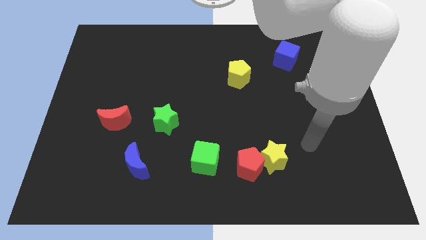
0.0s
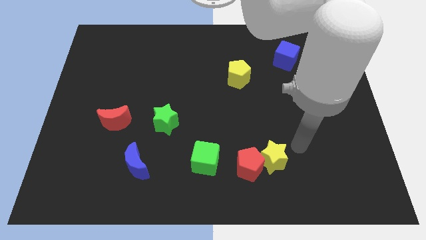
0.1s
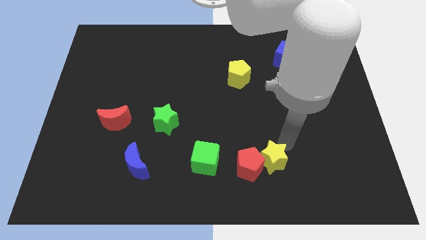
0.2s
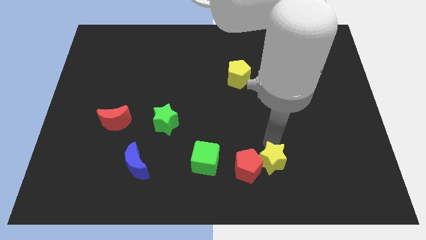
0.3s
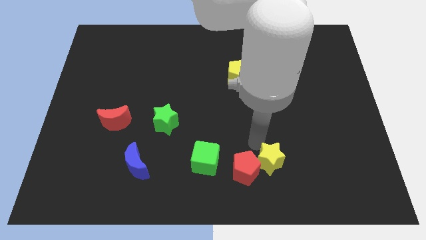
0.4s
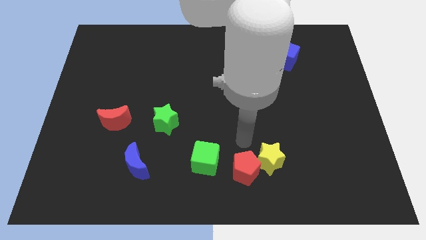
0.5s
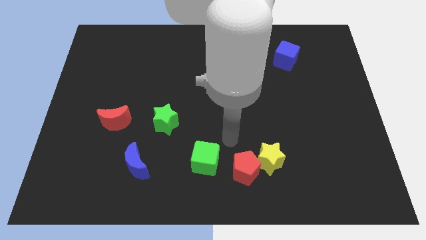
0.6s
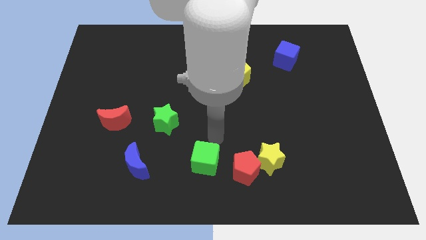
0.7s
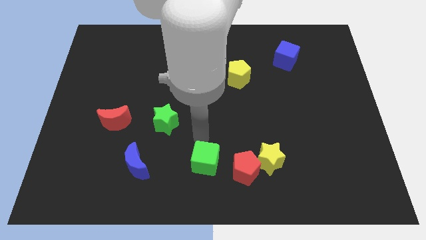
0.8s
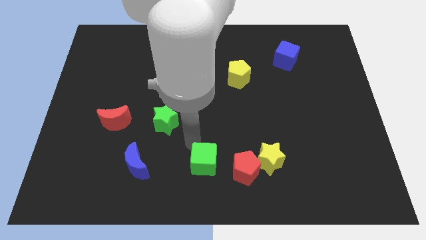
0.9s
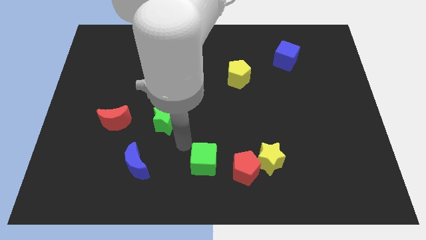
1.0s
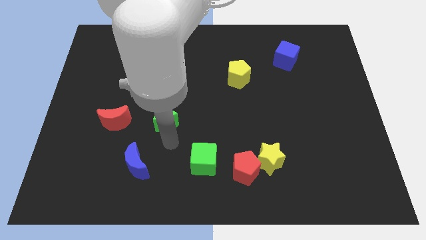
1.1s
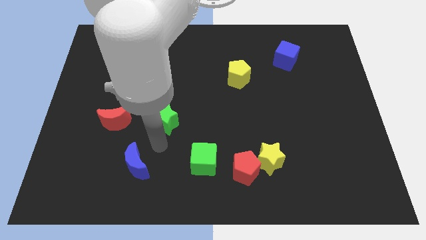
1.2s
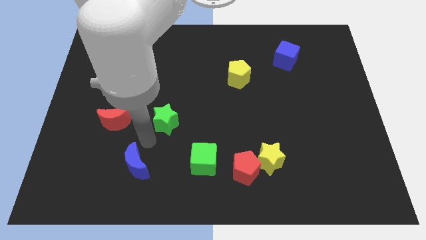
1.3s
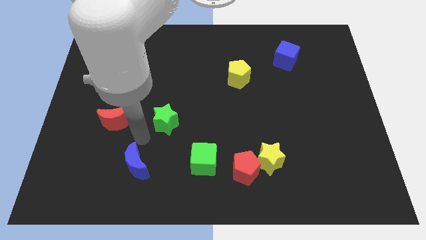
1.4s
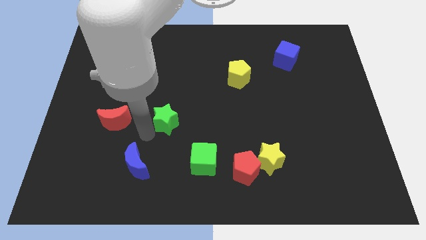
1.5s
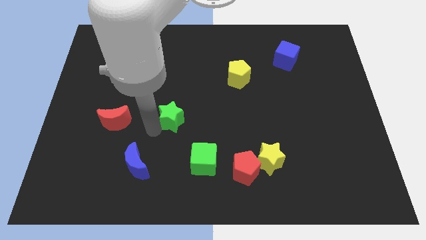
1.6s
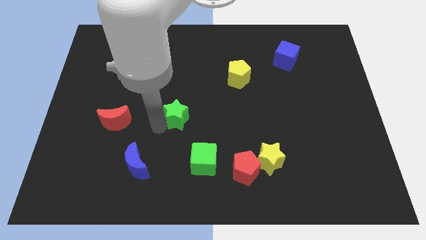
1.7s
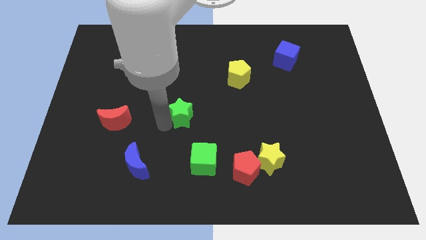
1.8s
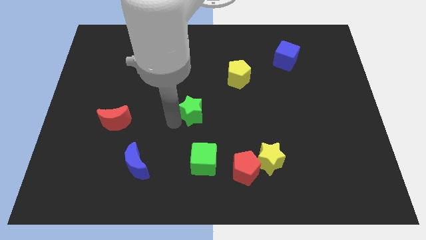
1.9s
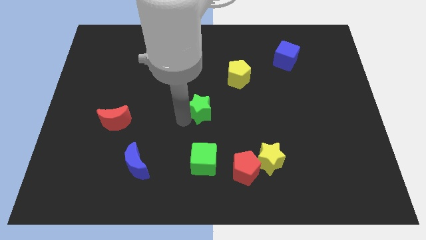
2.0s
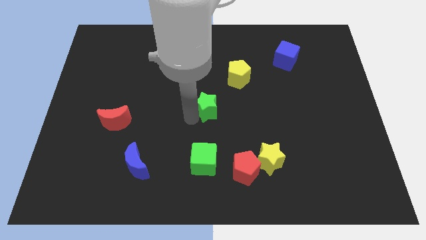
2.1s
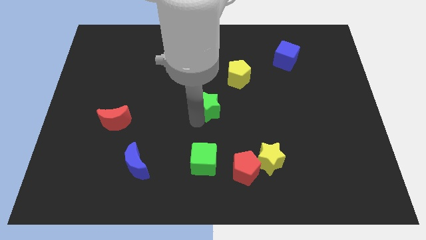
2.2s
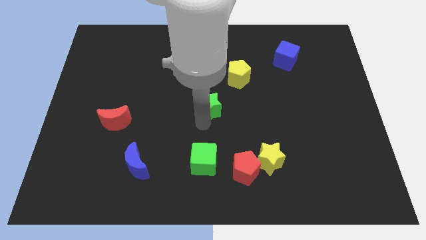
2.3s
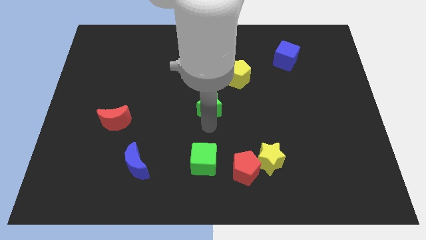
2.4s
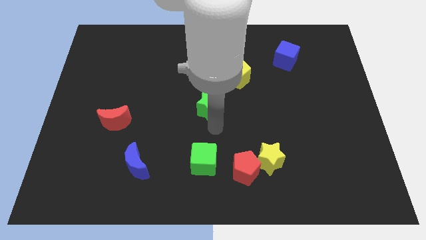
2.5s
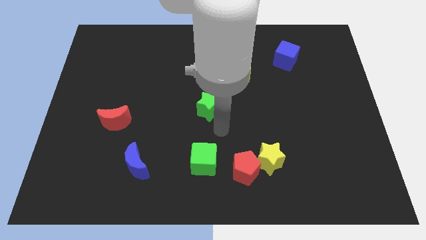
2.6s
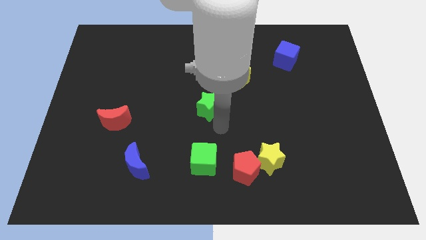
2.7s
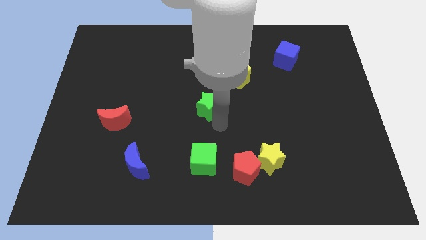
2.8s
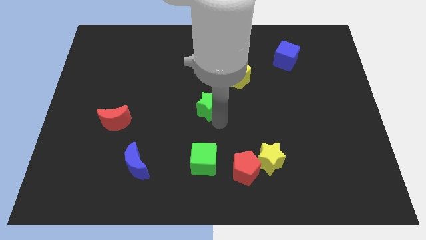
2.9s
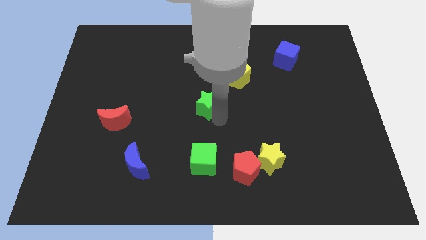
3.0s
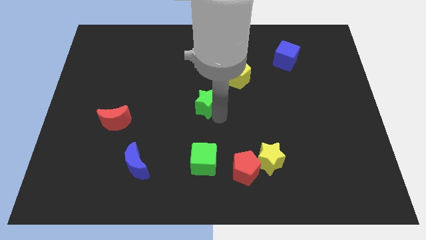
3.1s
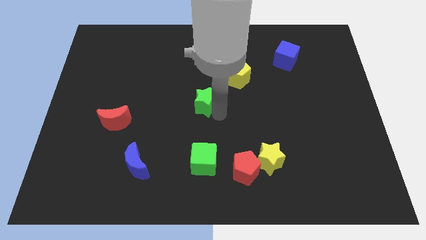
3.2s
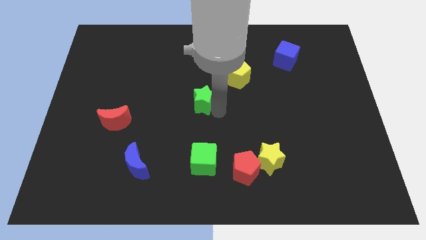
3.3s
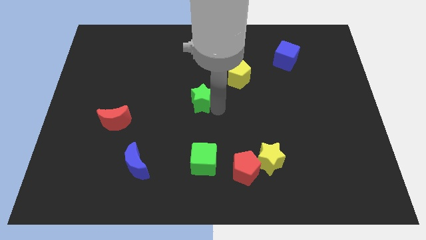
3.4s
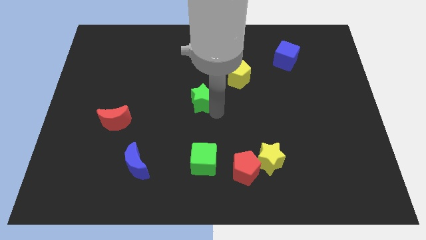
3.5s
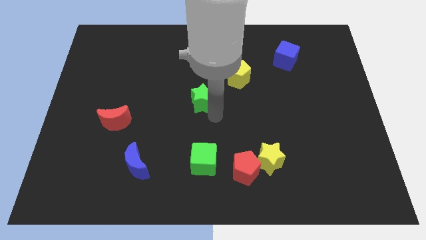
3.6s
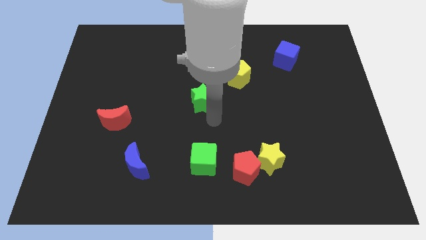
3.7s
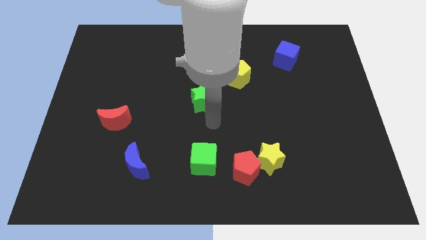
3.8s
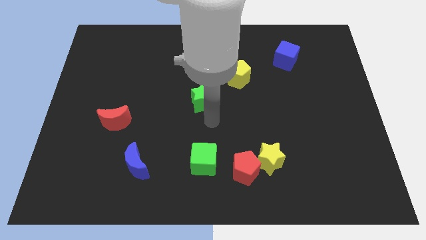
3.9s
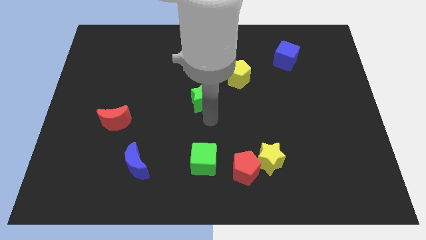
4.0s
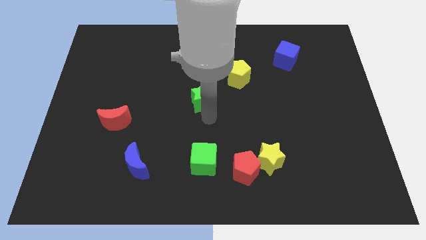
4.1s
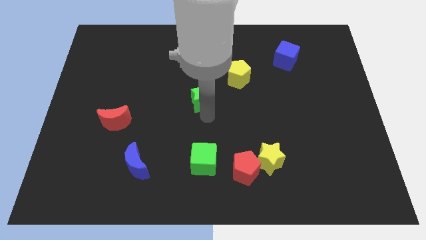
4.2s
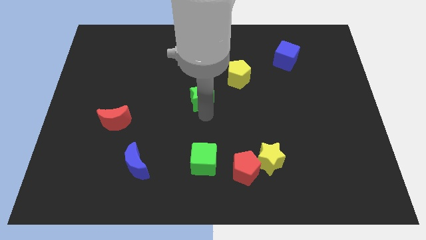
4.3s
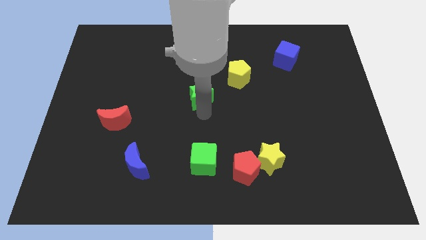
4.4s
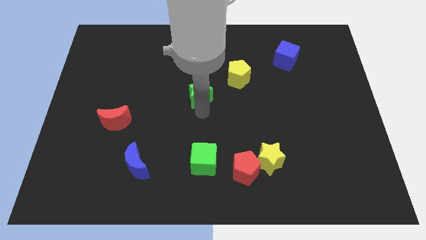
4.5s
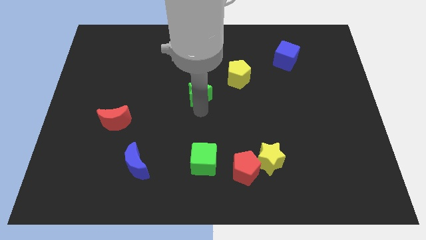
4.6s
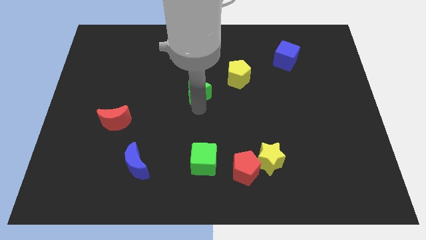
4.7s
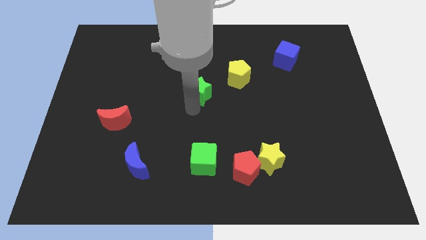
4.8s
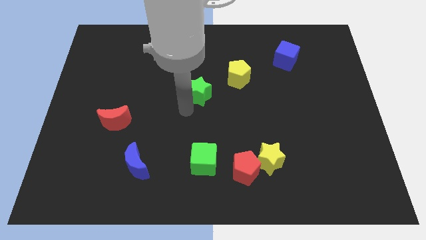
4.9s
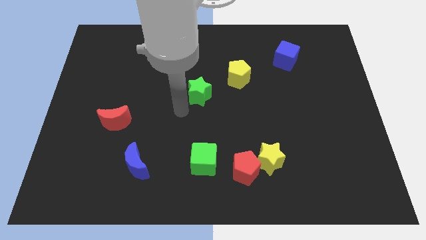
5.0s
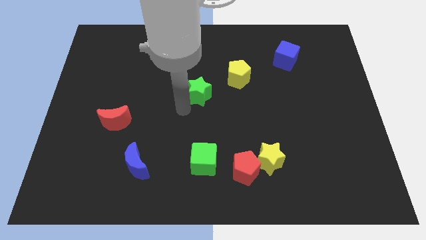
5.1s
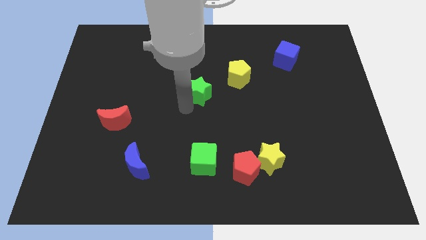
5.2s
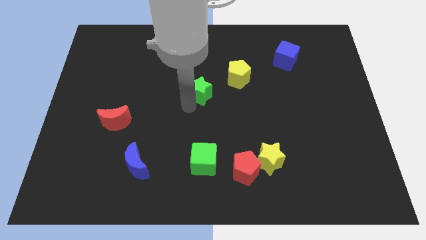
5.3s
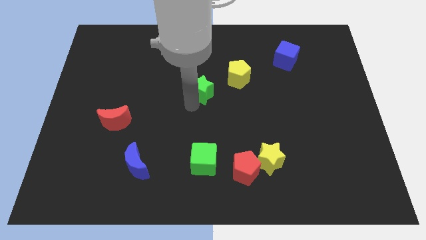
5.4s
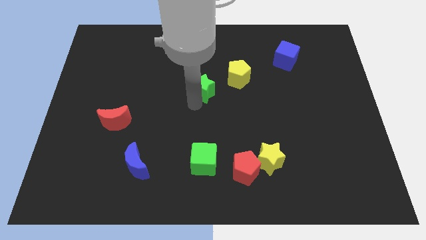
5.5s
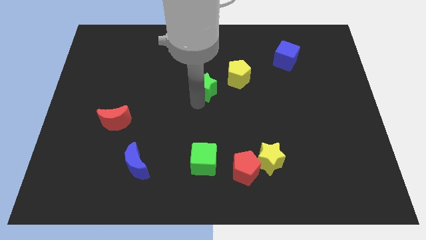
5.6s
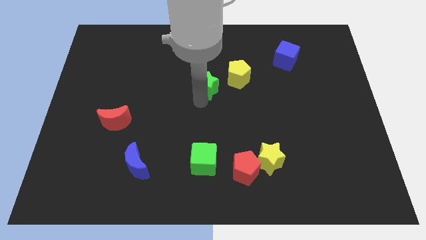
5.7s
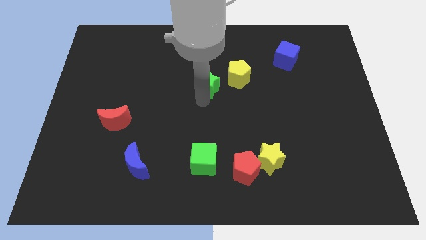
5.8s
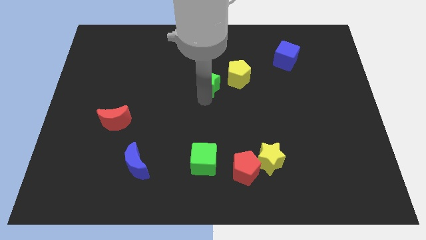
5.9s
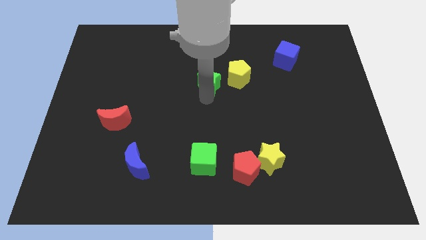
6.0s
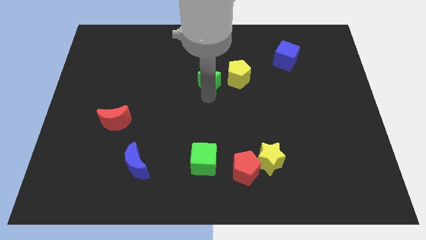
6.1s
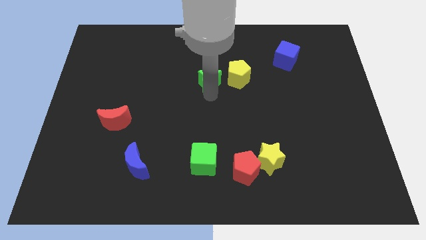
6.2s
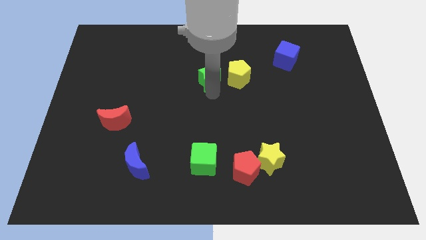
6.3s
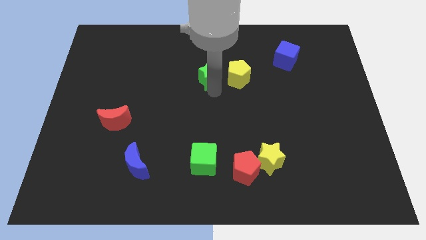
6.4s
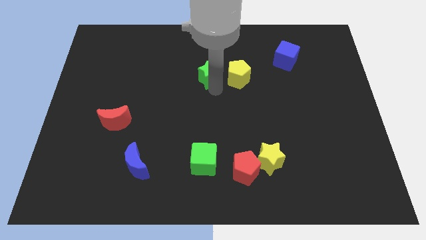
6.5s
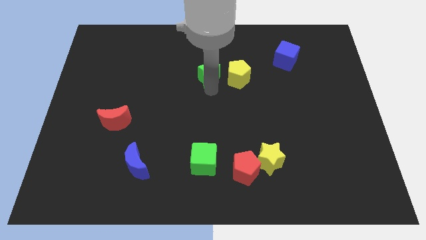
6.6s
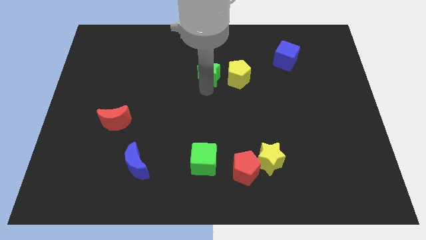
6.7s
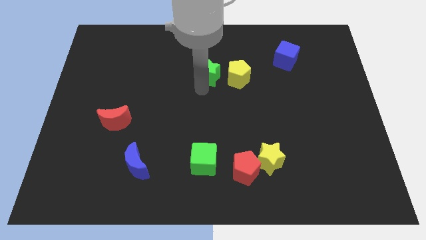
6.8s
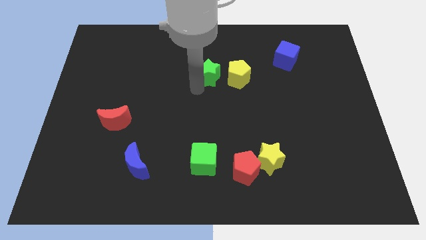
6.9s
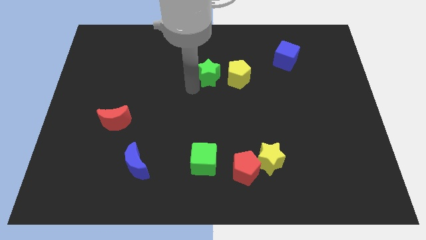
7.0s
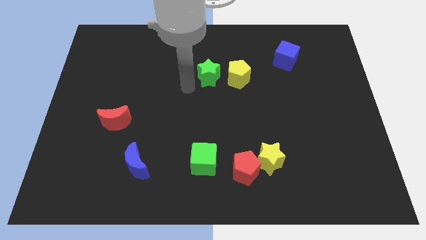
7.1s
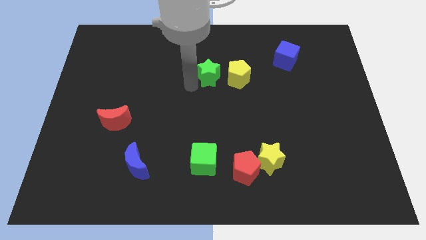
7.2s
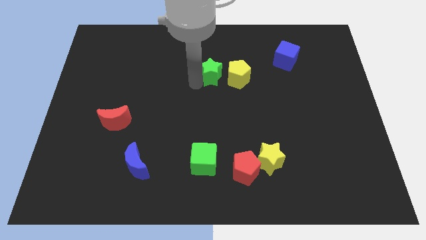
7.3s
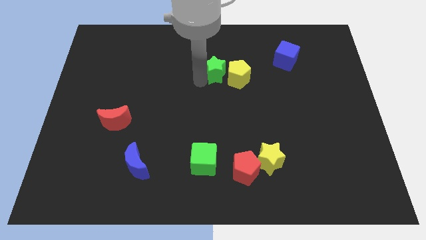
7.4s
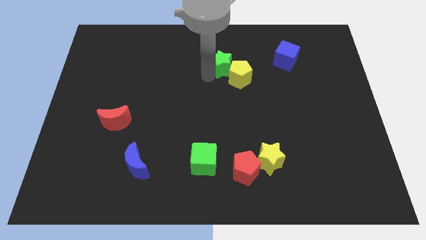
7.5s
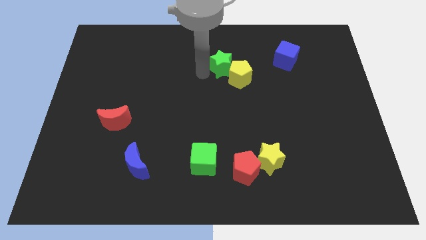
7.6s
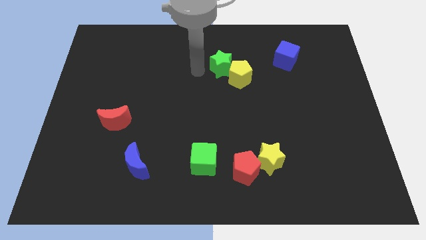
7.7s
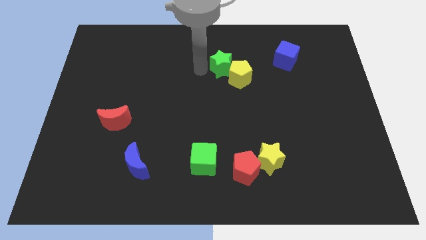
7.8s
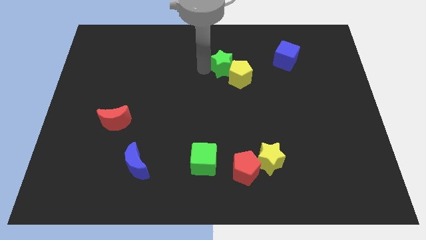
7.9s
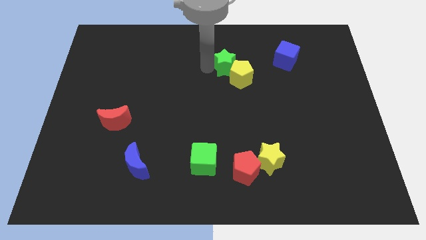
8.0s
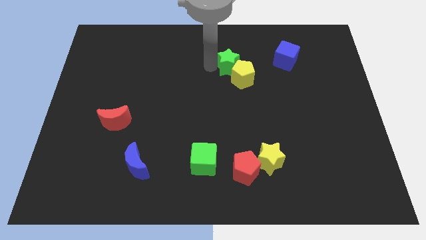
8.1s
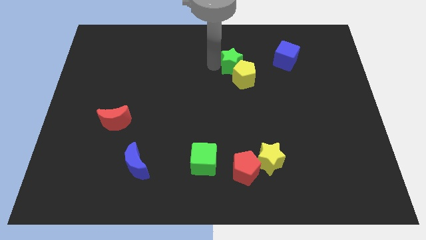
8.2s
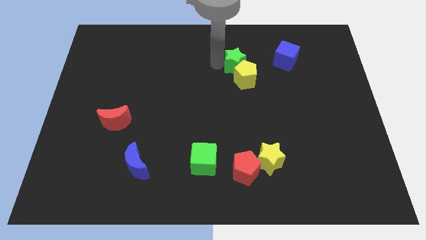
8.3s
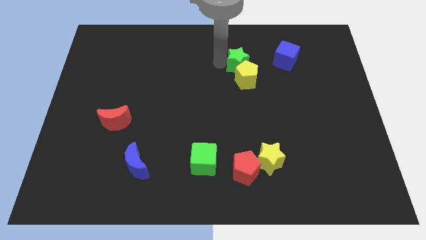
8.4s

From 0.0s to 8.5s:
push the green star diagonally up and to the right of the yellow pentagon
